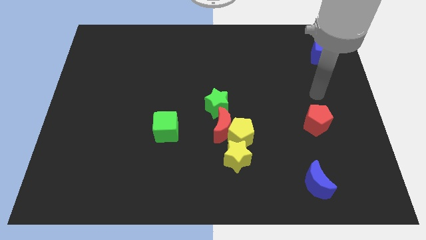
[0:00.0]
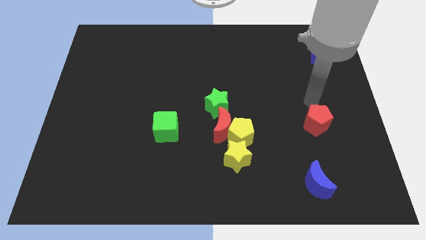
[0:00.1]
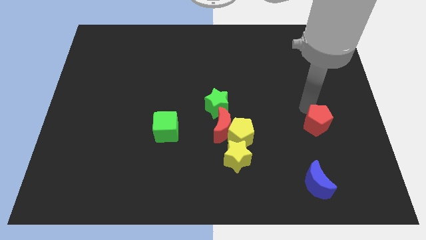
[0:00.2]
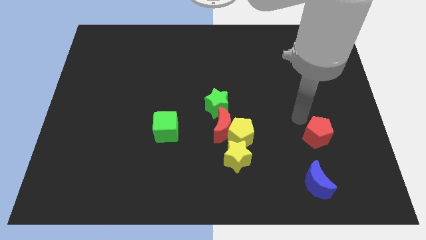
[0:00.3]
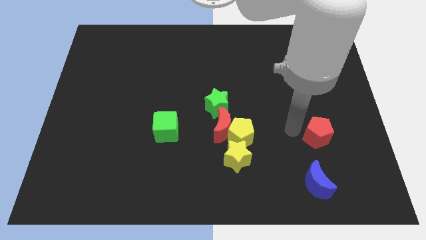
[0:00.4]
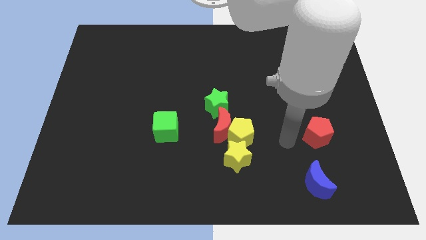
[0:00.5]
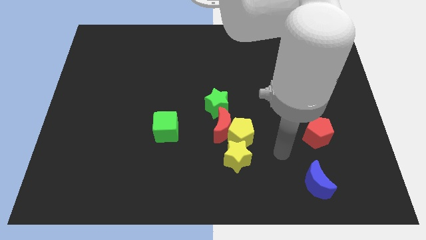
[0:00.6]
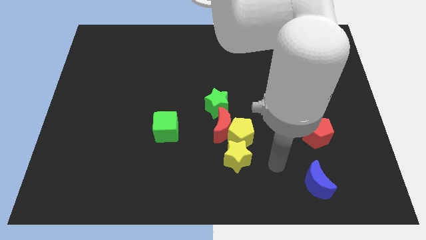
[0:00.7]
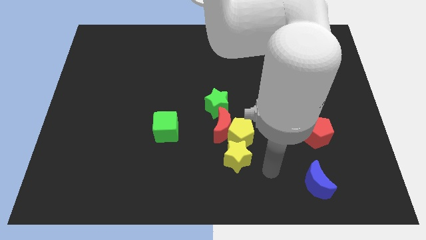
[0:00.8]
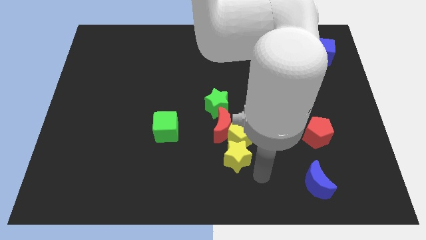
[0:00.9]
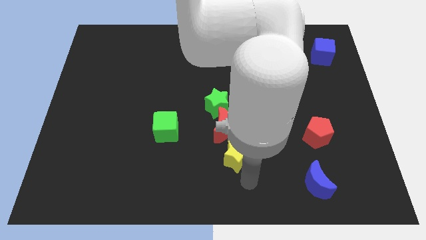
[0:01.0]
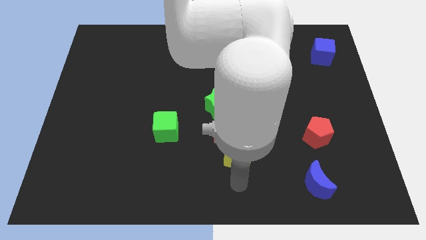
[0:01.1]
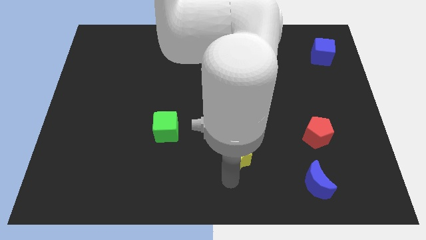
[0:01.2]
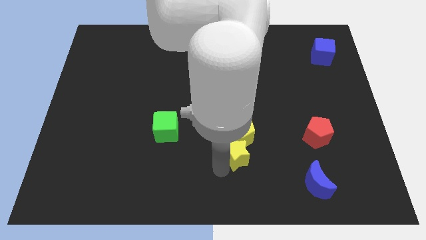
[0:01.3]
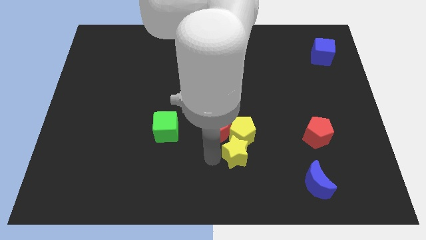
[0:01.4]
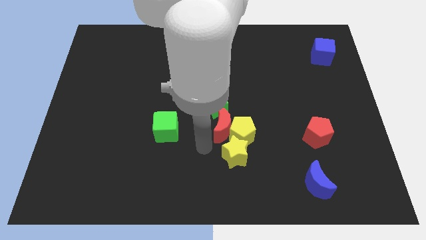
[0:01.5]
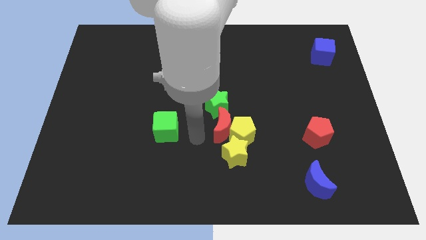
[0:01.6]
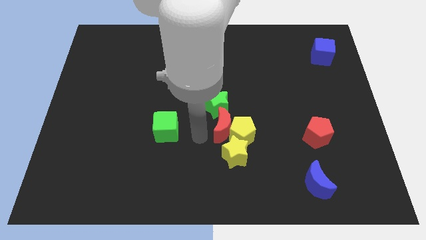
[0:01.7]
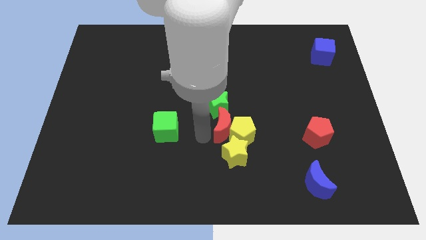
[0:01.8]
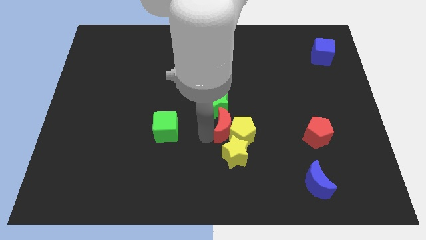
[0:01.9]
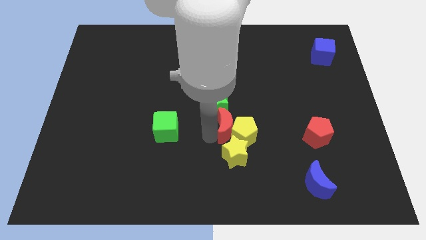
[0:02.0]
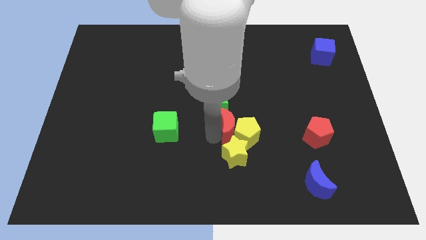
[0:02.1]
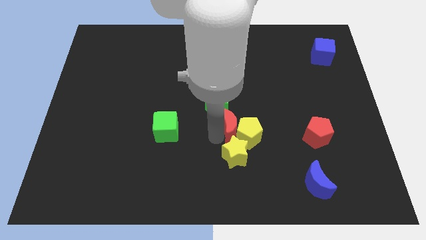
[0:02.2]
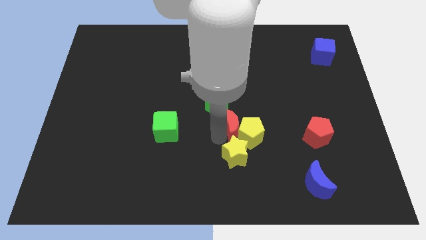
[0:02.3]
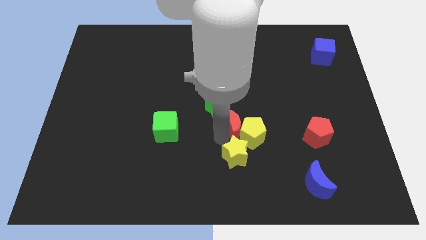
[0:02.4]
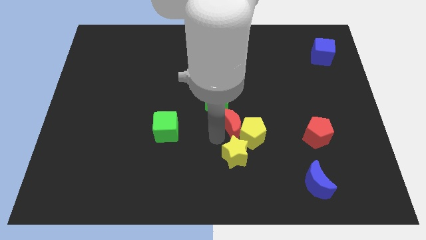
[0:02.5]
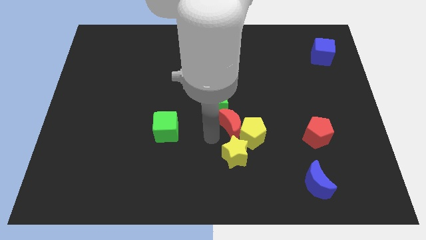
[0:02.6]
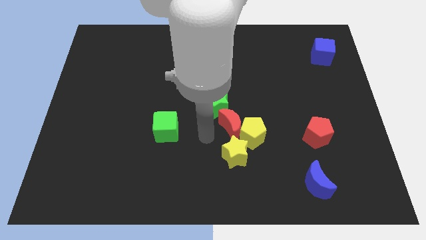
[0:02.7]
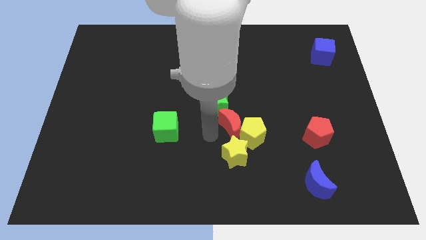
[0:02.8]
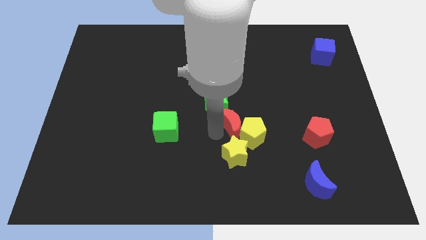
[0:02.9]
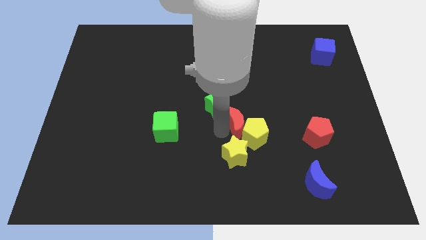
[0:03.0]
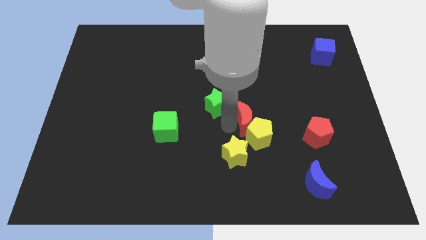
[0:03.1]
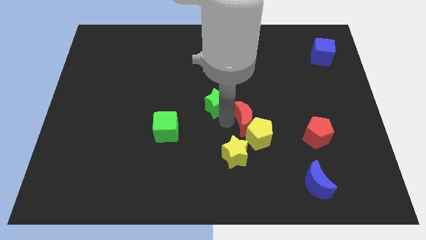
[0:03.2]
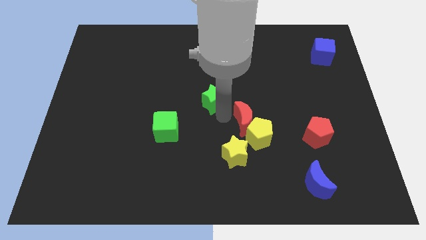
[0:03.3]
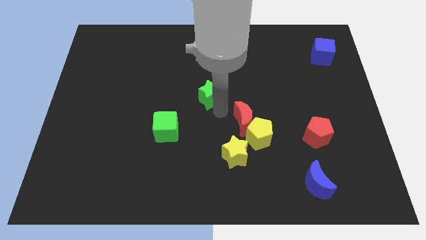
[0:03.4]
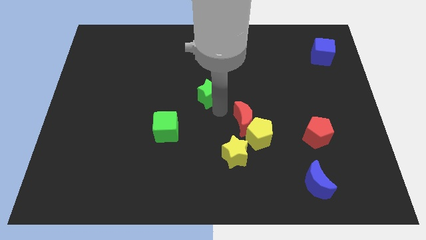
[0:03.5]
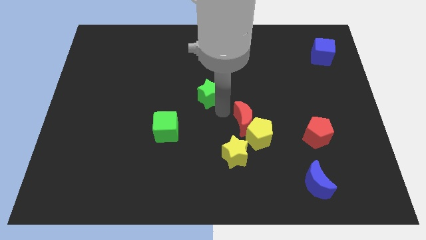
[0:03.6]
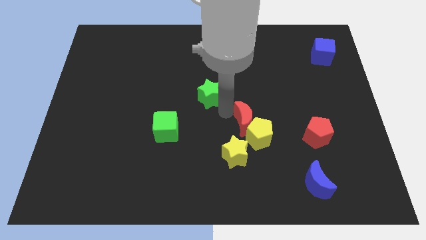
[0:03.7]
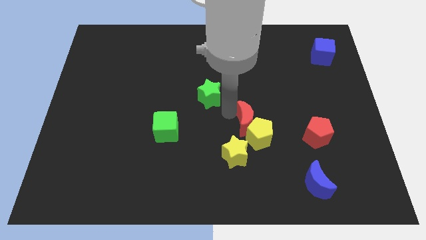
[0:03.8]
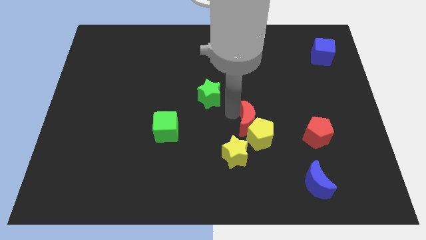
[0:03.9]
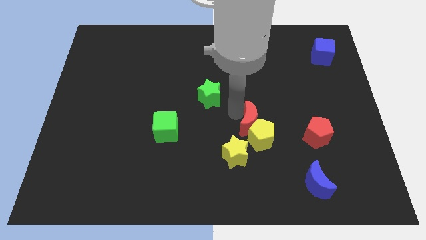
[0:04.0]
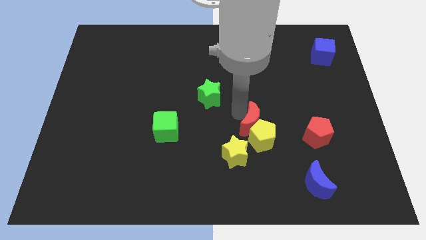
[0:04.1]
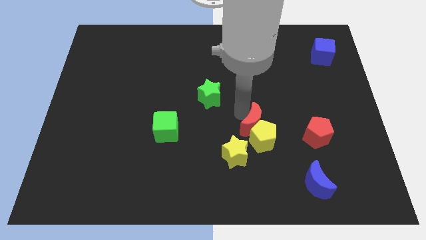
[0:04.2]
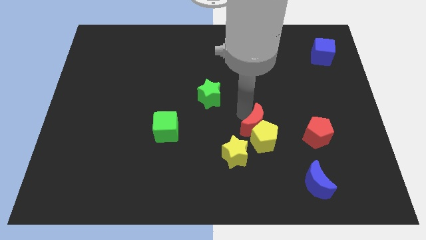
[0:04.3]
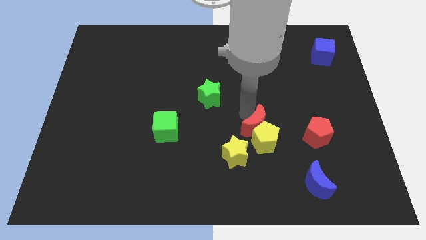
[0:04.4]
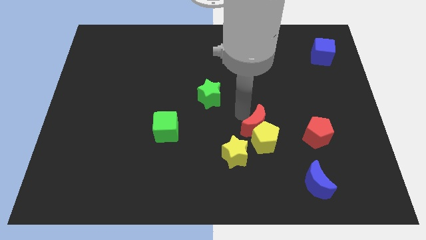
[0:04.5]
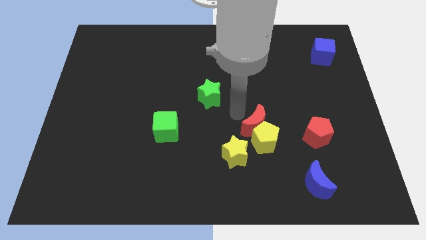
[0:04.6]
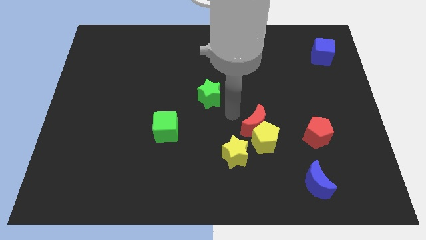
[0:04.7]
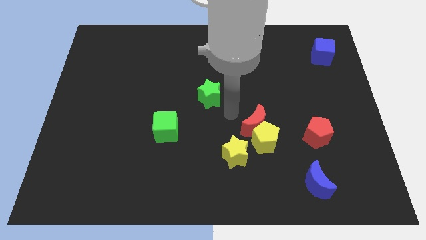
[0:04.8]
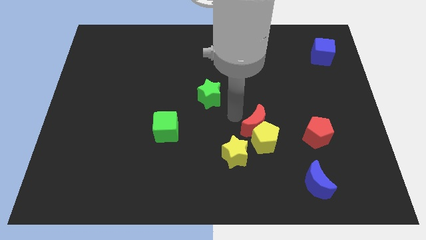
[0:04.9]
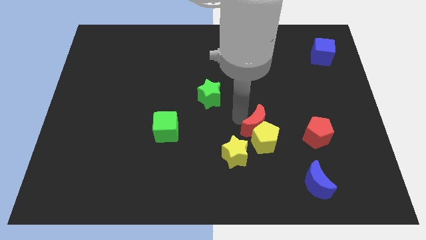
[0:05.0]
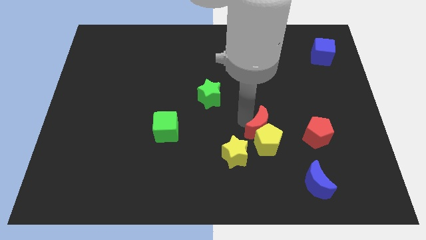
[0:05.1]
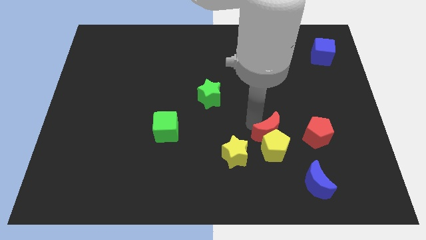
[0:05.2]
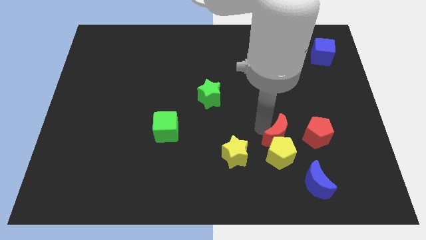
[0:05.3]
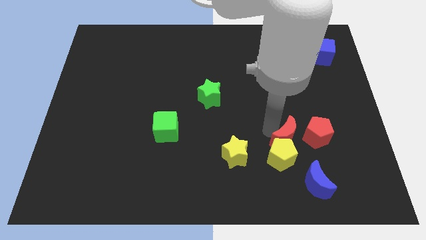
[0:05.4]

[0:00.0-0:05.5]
move the red moon diagonally down and to the left of the red pentagon

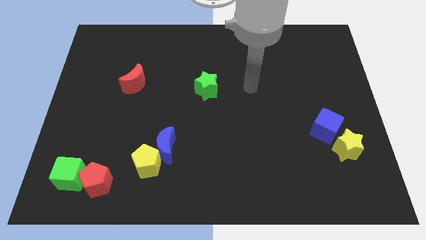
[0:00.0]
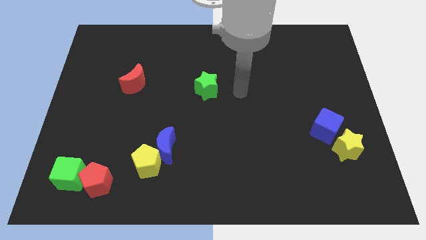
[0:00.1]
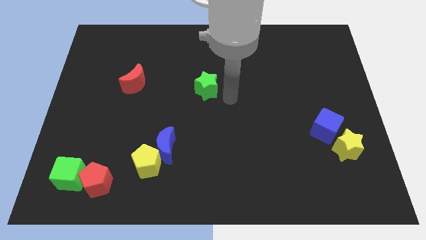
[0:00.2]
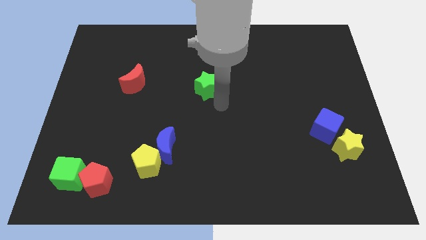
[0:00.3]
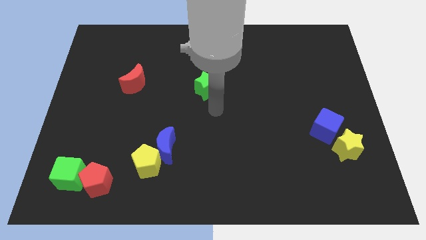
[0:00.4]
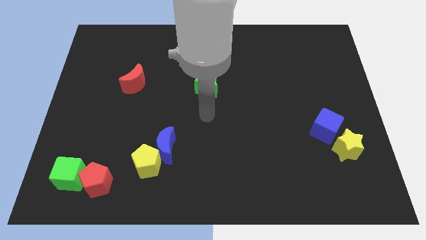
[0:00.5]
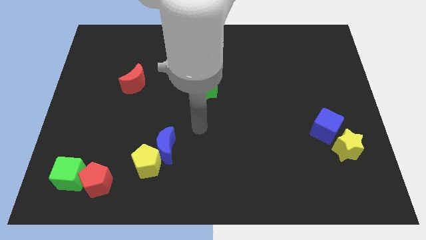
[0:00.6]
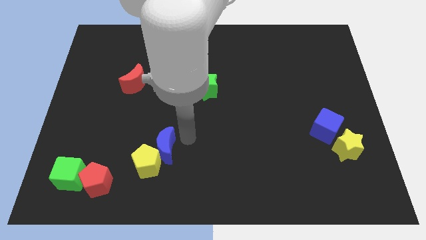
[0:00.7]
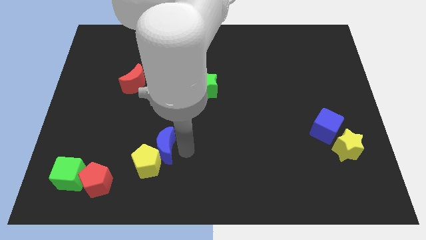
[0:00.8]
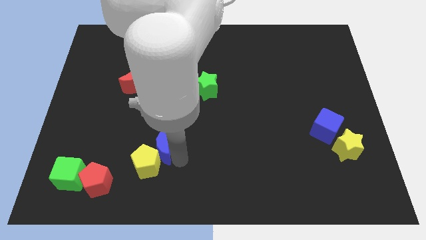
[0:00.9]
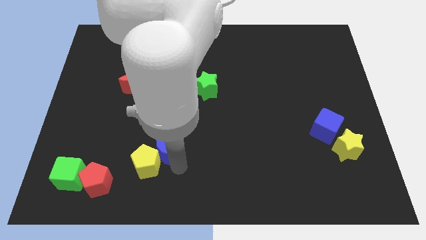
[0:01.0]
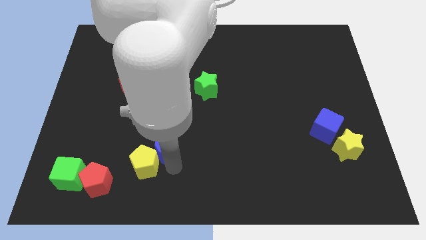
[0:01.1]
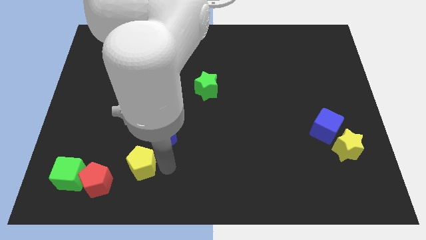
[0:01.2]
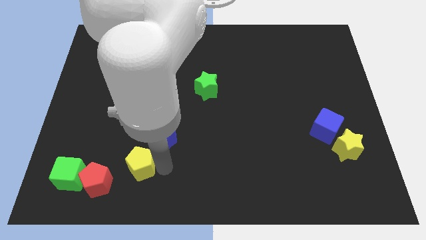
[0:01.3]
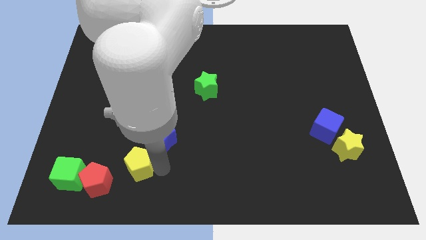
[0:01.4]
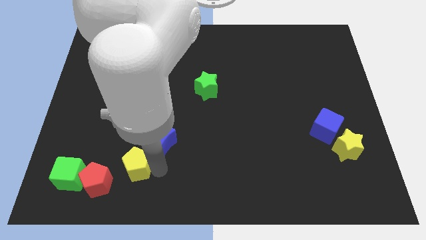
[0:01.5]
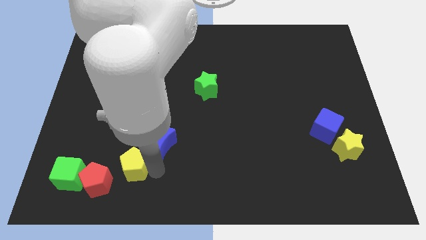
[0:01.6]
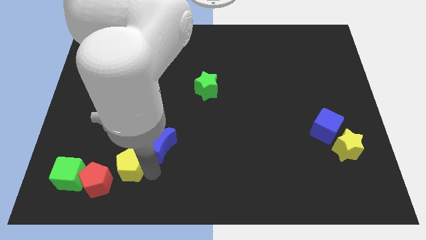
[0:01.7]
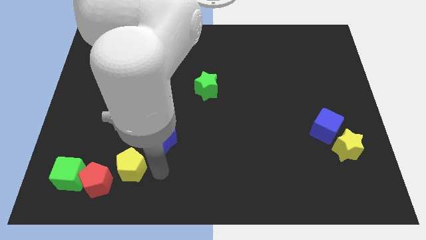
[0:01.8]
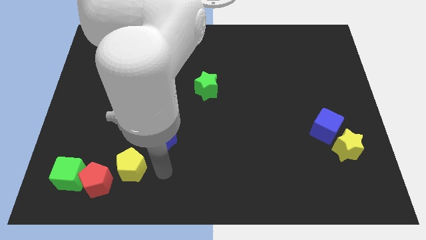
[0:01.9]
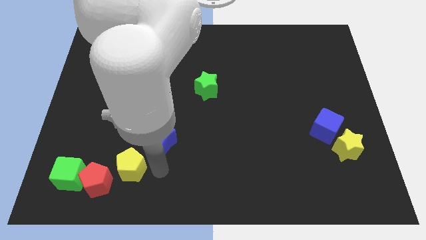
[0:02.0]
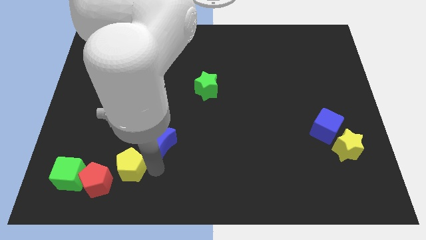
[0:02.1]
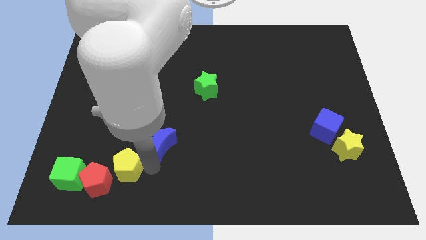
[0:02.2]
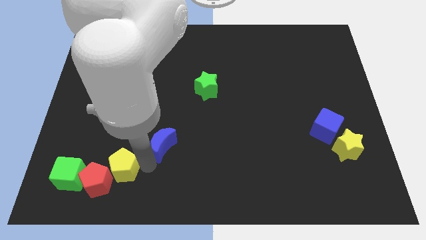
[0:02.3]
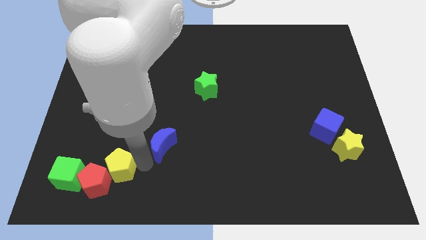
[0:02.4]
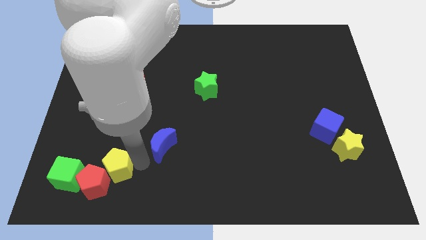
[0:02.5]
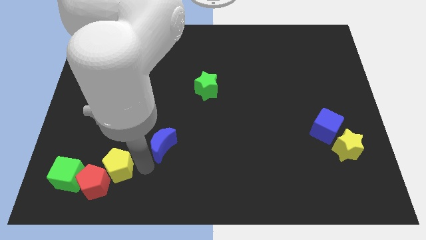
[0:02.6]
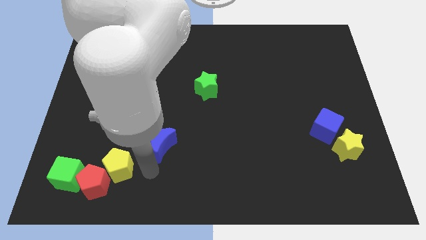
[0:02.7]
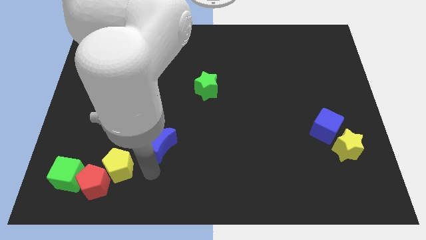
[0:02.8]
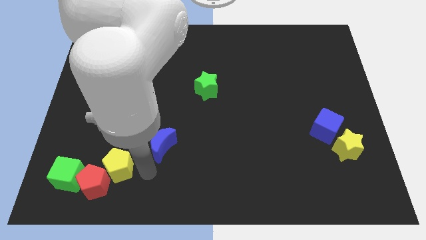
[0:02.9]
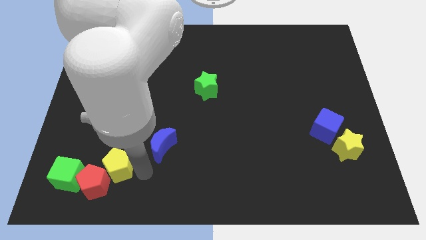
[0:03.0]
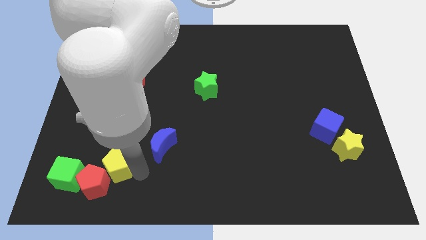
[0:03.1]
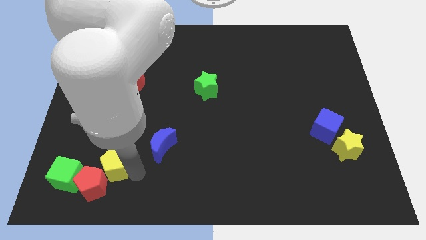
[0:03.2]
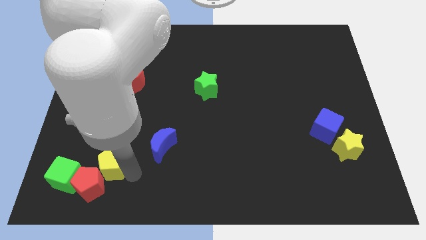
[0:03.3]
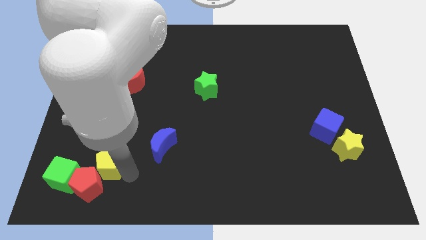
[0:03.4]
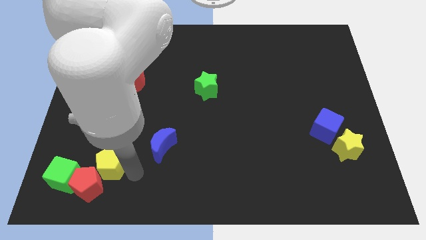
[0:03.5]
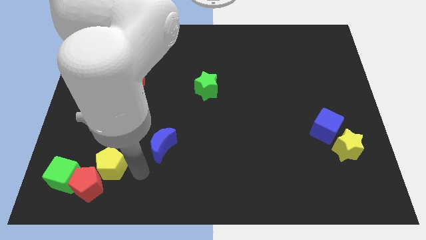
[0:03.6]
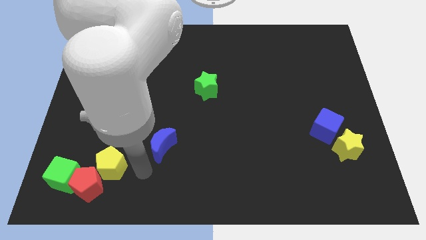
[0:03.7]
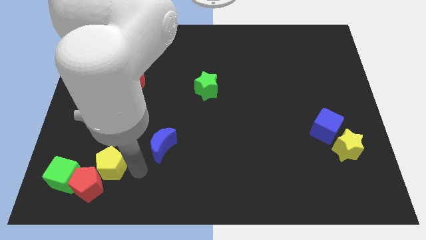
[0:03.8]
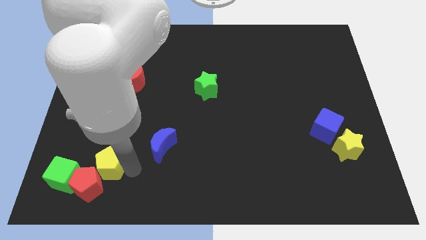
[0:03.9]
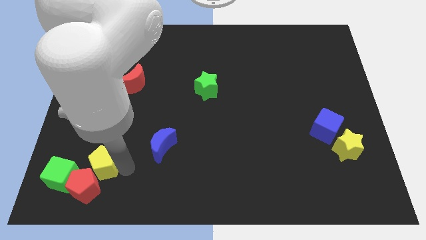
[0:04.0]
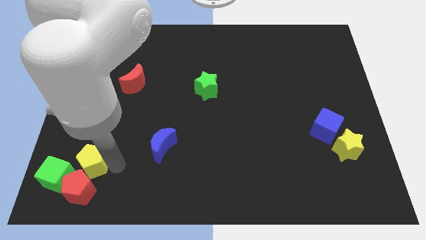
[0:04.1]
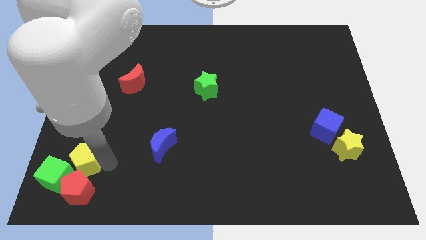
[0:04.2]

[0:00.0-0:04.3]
put the yellow pentagon to the top left side of the red pentagon
